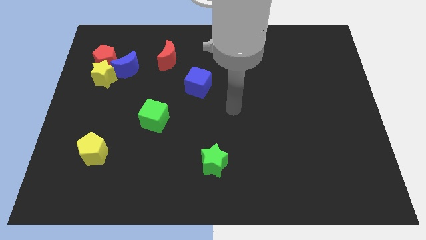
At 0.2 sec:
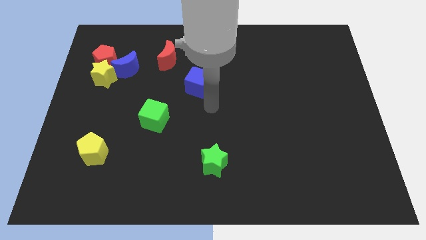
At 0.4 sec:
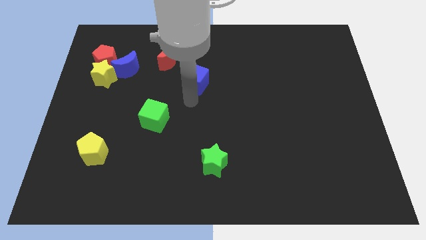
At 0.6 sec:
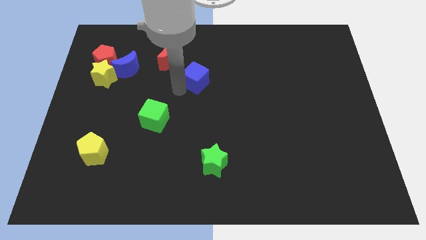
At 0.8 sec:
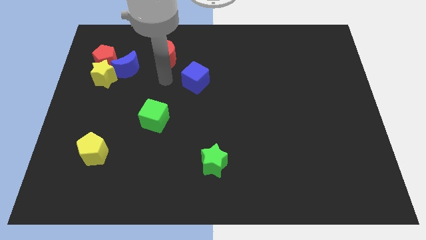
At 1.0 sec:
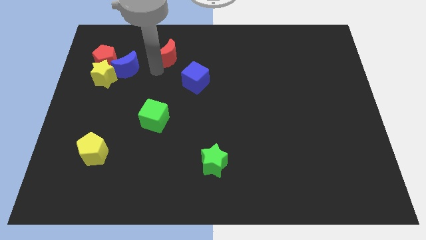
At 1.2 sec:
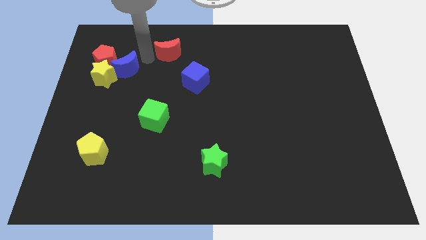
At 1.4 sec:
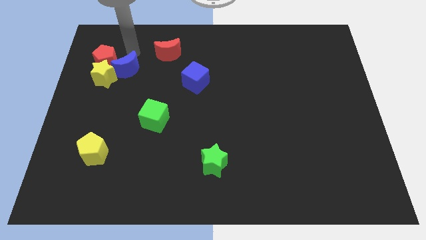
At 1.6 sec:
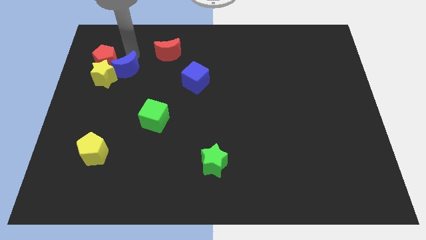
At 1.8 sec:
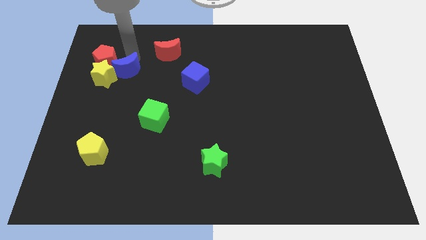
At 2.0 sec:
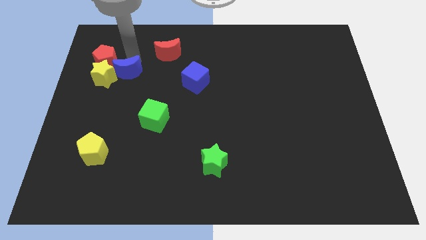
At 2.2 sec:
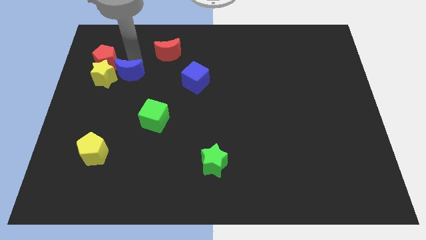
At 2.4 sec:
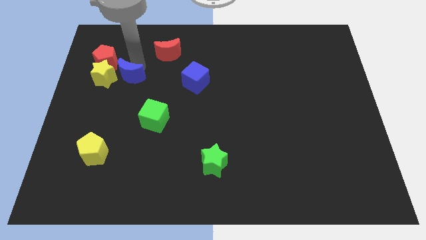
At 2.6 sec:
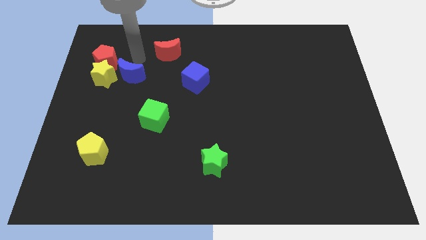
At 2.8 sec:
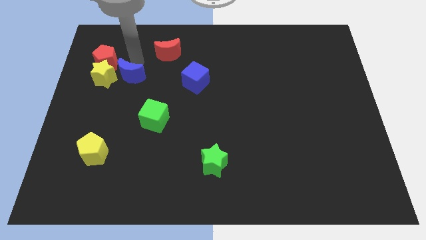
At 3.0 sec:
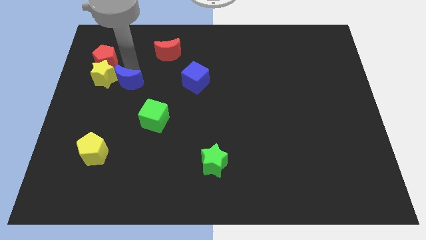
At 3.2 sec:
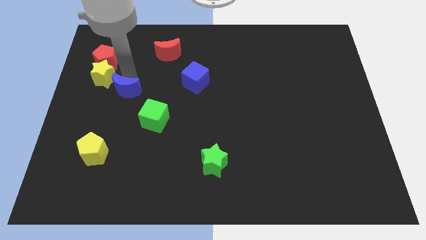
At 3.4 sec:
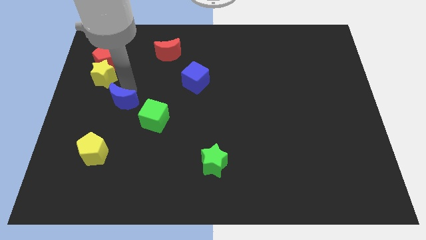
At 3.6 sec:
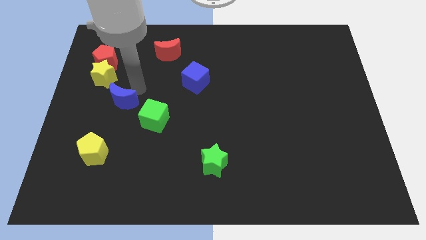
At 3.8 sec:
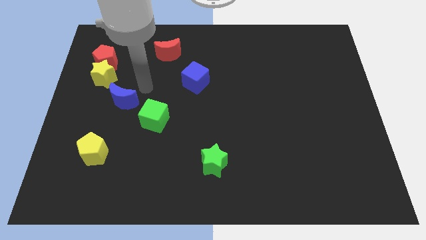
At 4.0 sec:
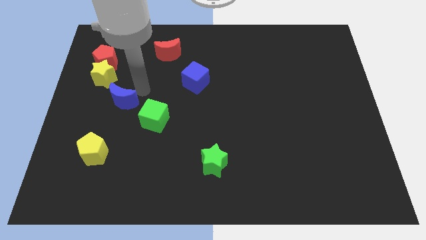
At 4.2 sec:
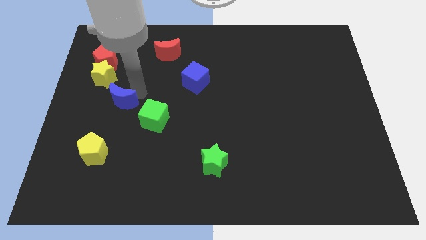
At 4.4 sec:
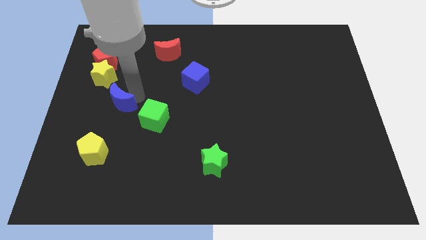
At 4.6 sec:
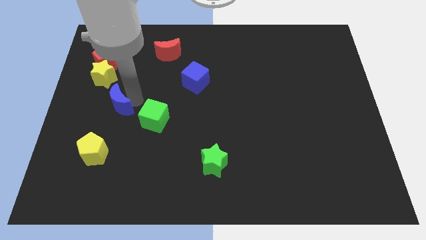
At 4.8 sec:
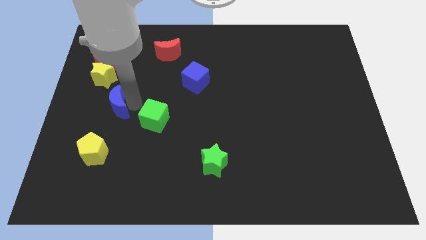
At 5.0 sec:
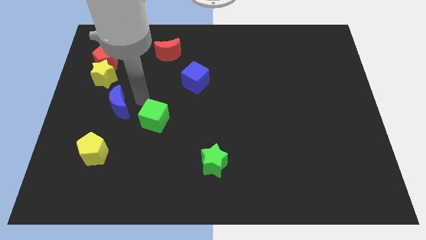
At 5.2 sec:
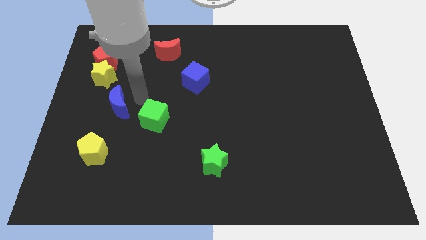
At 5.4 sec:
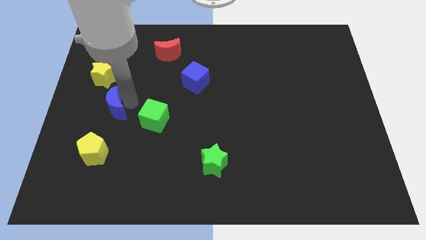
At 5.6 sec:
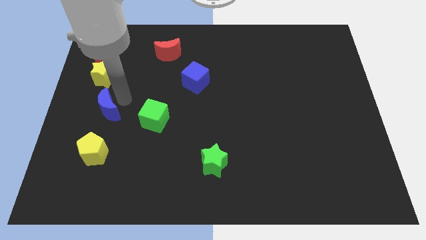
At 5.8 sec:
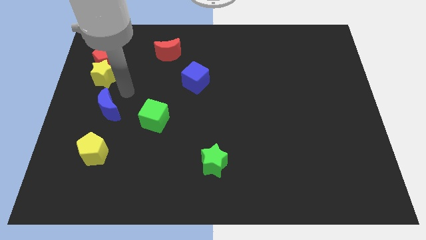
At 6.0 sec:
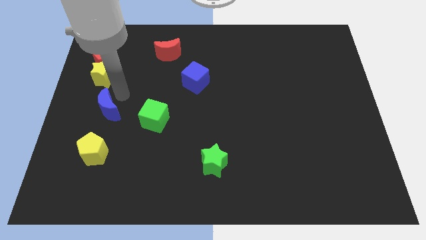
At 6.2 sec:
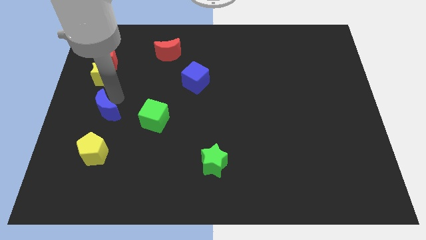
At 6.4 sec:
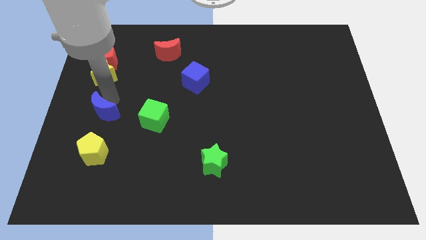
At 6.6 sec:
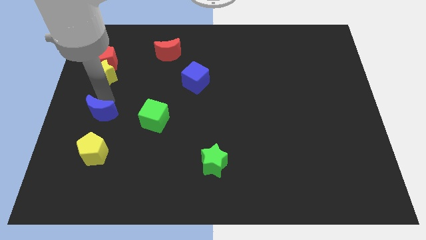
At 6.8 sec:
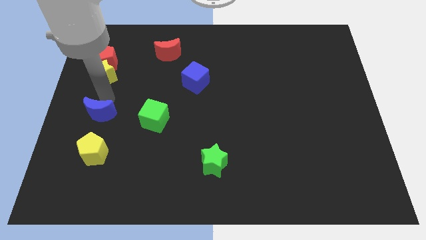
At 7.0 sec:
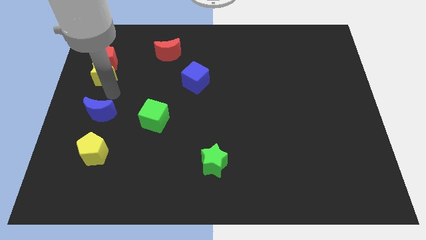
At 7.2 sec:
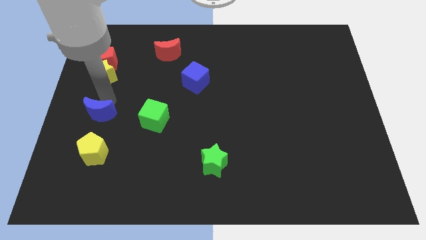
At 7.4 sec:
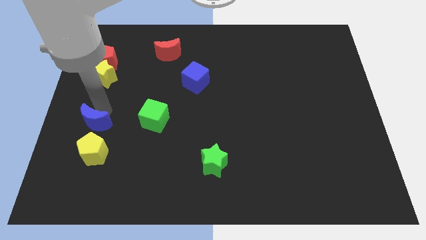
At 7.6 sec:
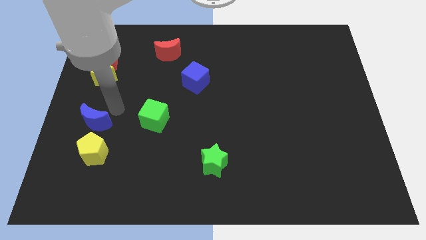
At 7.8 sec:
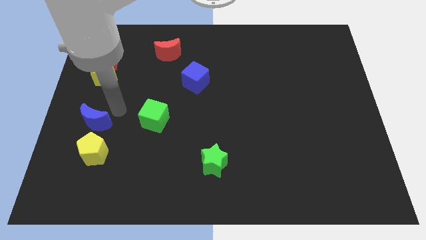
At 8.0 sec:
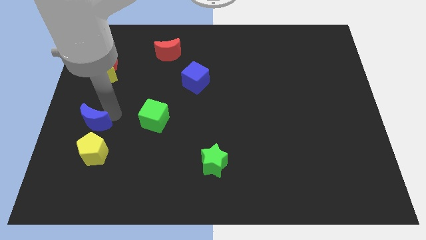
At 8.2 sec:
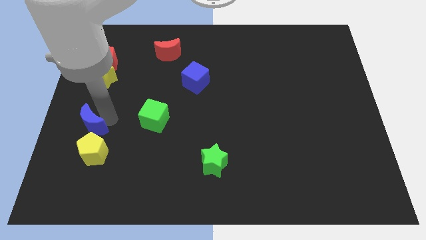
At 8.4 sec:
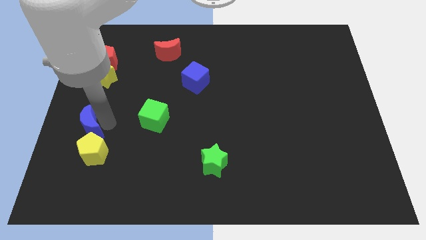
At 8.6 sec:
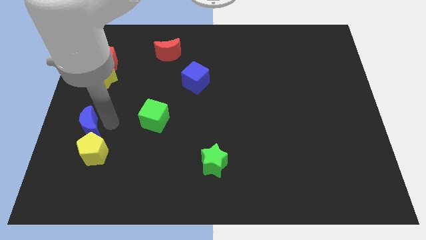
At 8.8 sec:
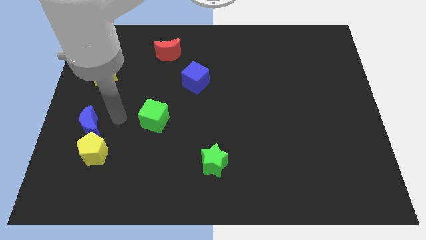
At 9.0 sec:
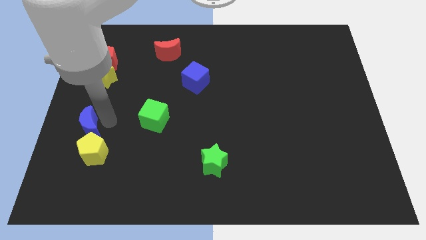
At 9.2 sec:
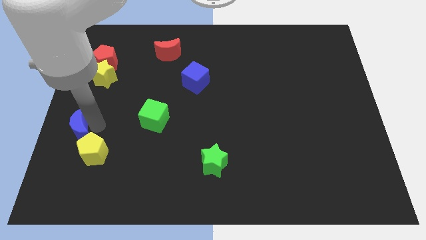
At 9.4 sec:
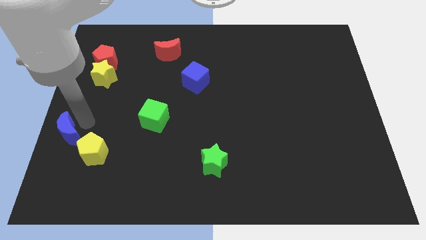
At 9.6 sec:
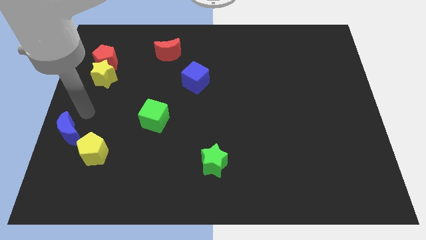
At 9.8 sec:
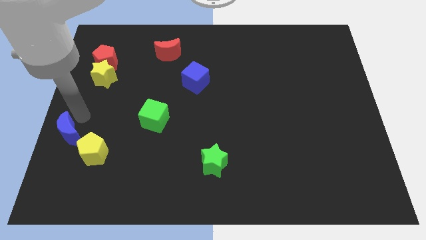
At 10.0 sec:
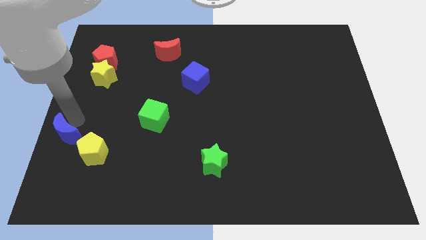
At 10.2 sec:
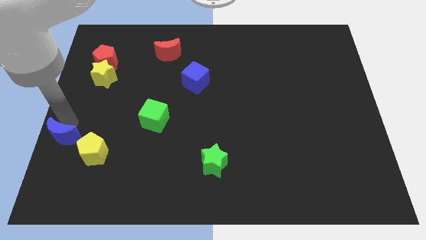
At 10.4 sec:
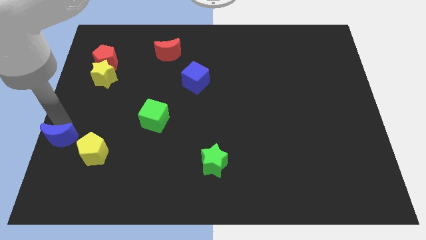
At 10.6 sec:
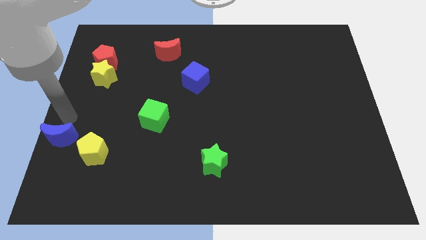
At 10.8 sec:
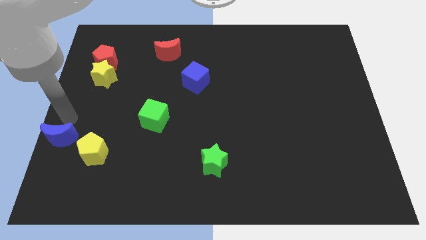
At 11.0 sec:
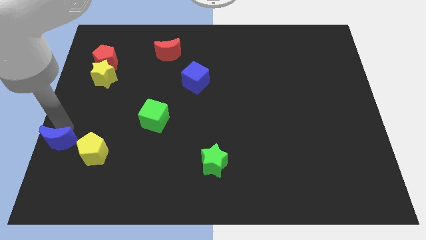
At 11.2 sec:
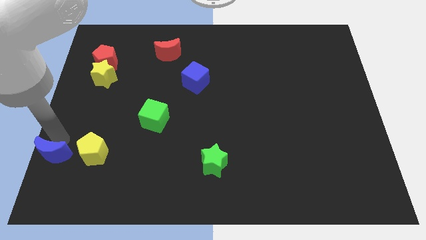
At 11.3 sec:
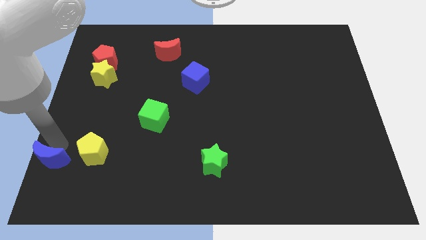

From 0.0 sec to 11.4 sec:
push the blue moon to the bottom left of the board
